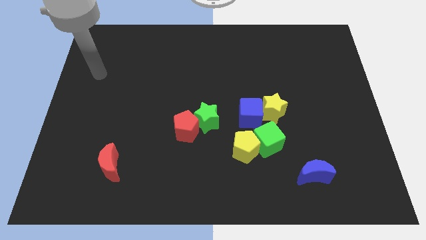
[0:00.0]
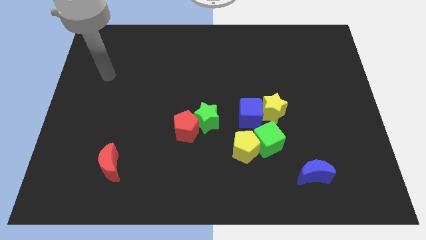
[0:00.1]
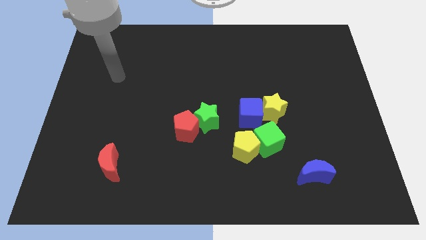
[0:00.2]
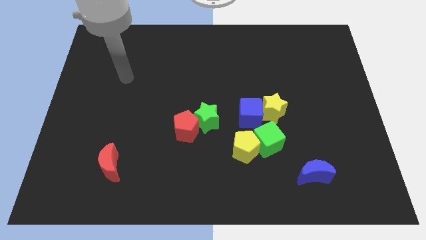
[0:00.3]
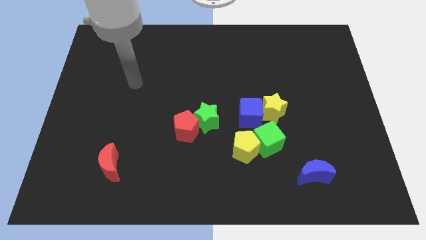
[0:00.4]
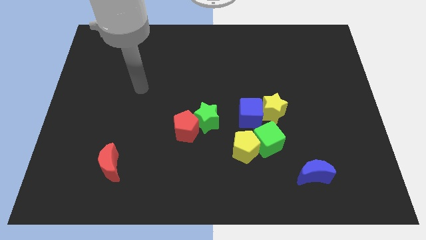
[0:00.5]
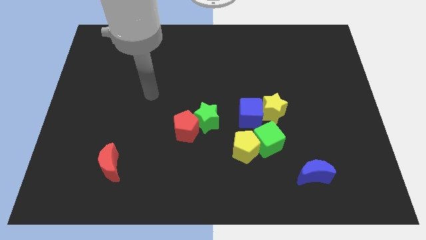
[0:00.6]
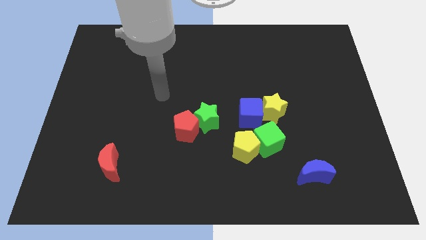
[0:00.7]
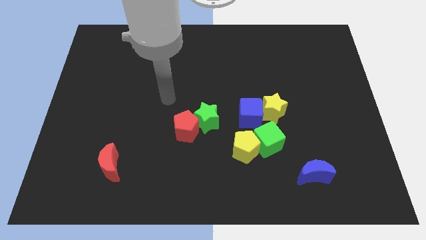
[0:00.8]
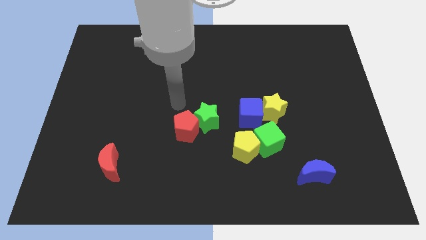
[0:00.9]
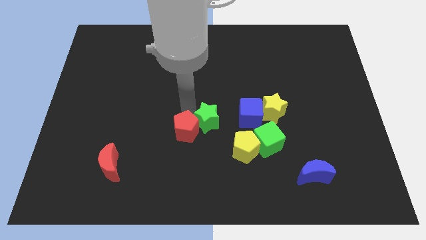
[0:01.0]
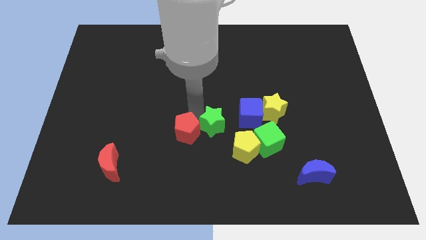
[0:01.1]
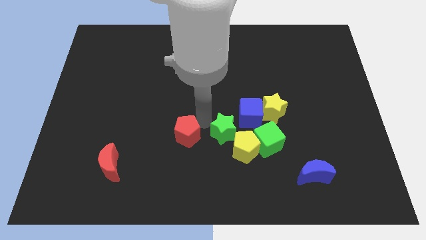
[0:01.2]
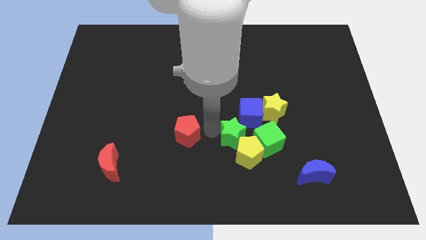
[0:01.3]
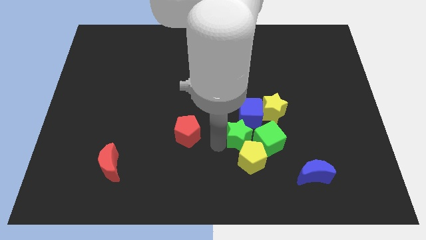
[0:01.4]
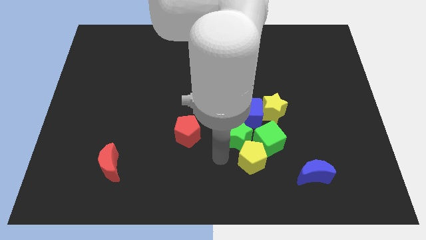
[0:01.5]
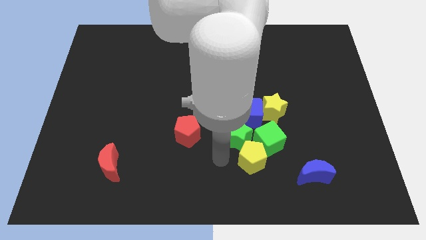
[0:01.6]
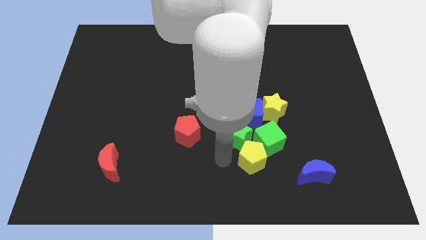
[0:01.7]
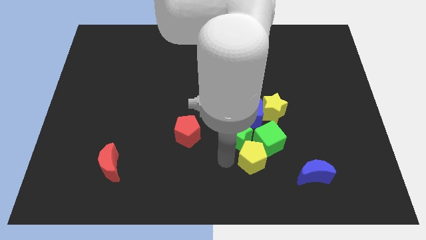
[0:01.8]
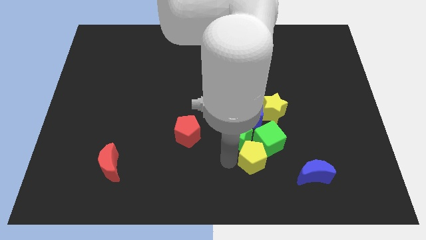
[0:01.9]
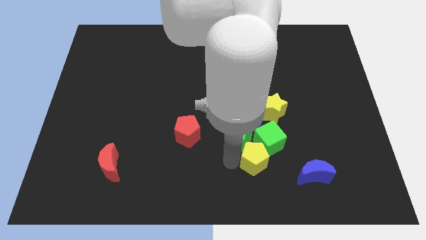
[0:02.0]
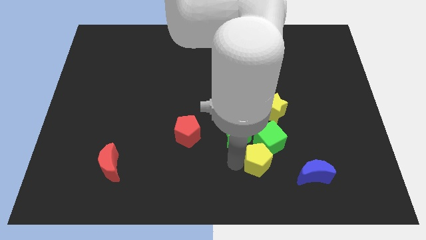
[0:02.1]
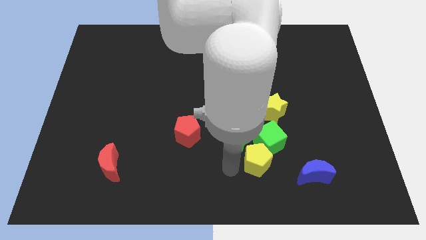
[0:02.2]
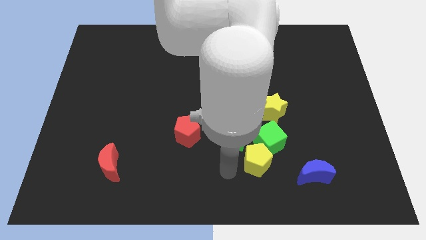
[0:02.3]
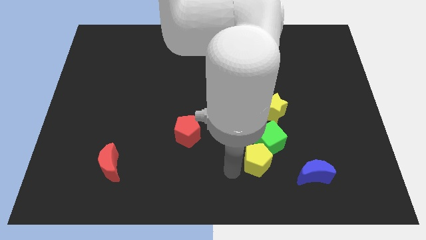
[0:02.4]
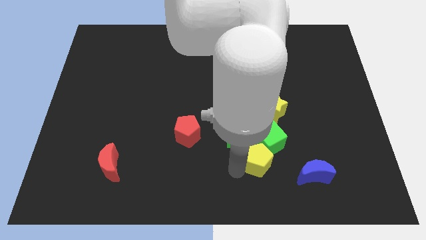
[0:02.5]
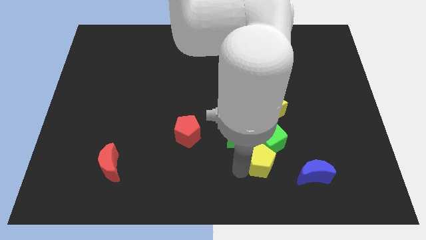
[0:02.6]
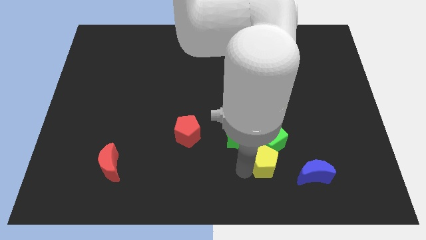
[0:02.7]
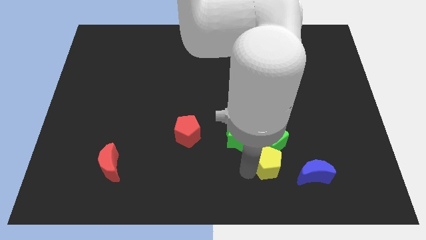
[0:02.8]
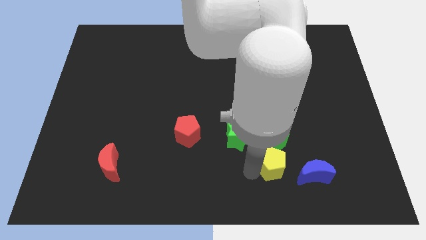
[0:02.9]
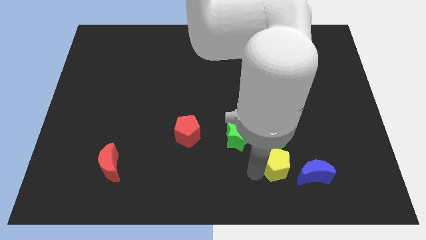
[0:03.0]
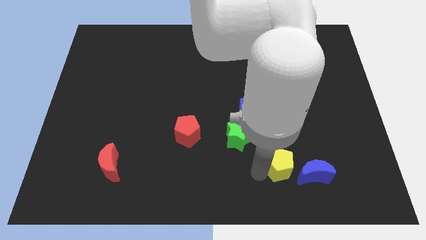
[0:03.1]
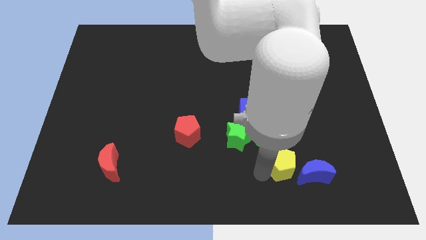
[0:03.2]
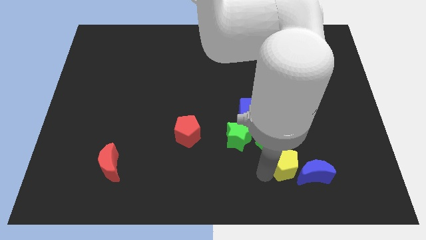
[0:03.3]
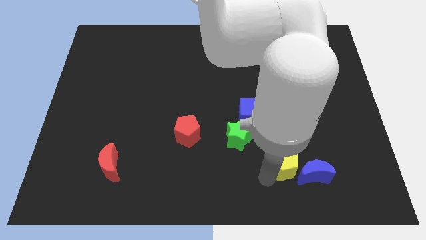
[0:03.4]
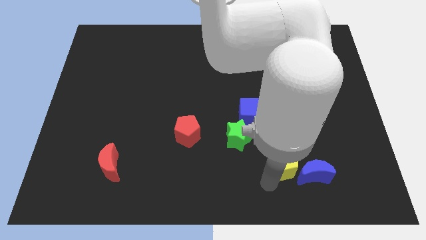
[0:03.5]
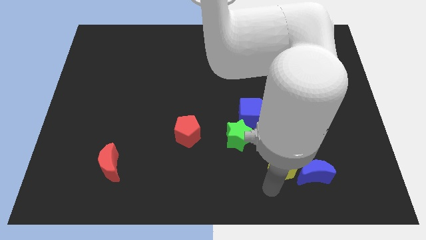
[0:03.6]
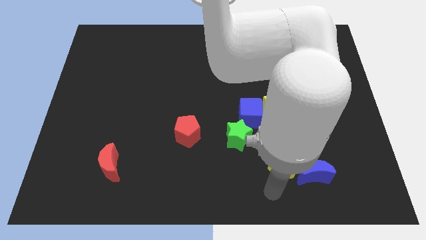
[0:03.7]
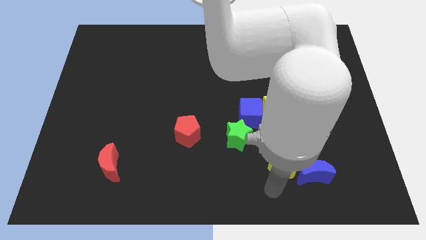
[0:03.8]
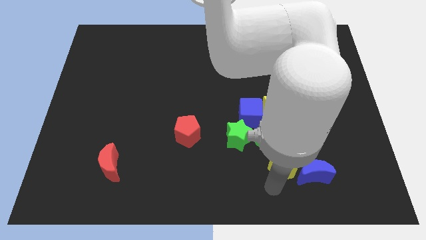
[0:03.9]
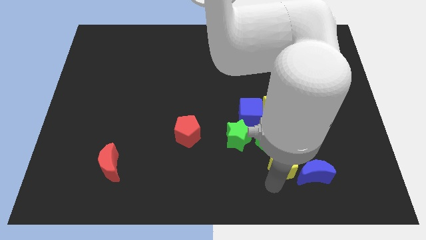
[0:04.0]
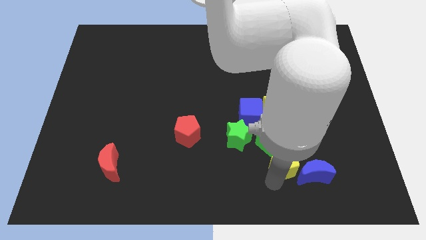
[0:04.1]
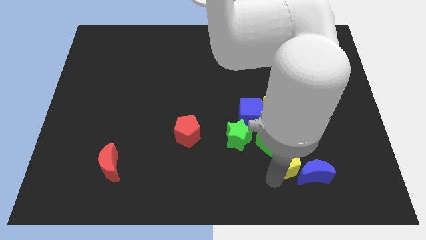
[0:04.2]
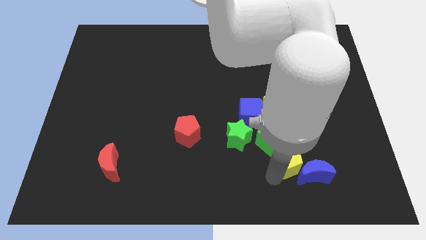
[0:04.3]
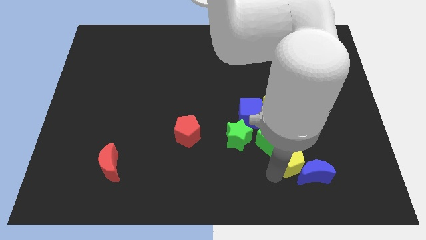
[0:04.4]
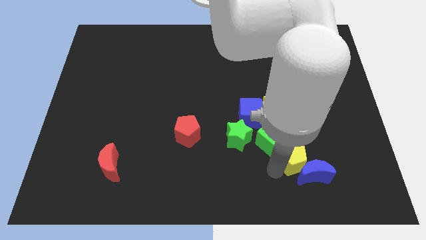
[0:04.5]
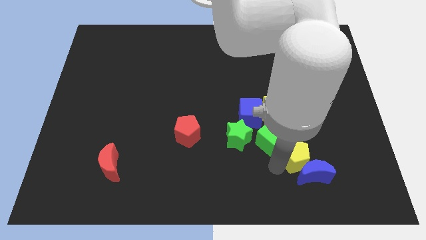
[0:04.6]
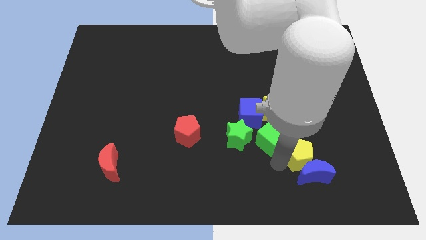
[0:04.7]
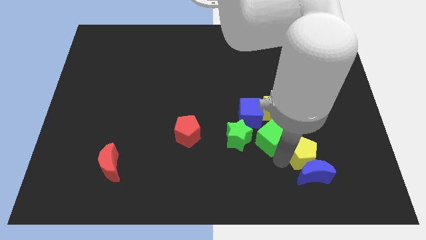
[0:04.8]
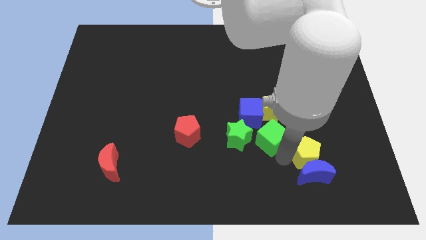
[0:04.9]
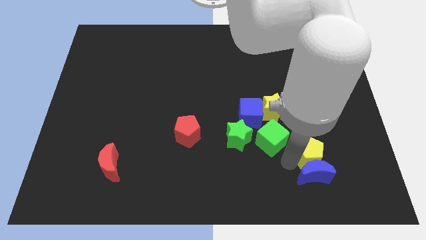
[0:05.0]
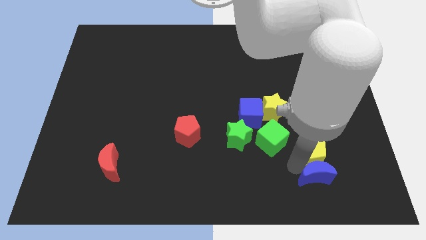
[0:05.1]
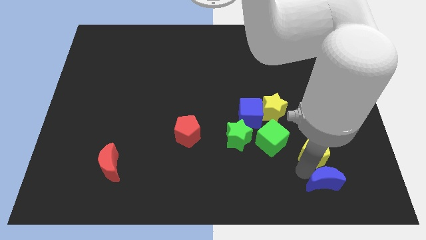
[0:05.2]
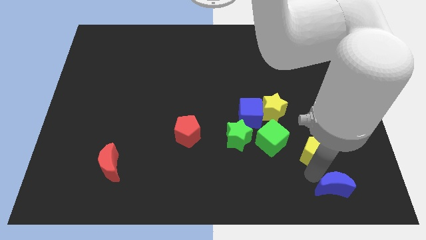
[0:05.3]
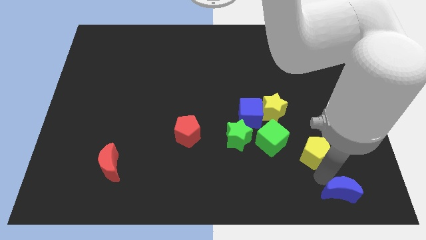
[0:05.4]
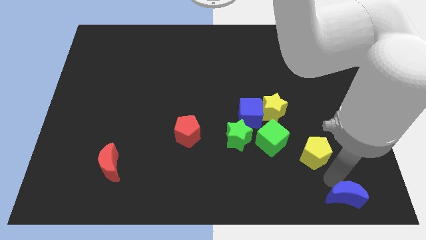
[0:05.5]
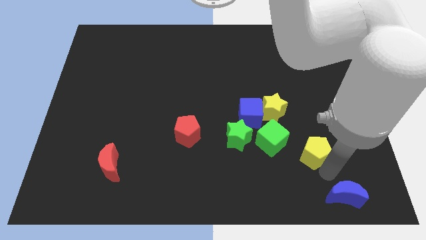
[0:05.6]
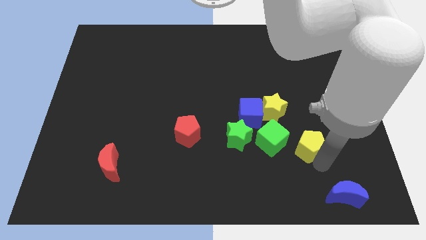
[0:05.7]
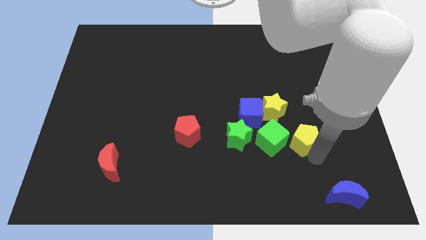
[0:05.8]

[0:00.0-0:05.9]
slightly move the yellow pentagon upwards and to the right diagonally

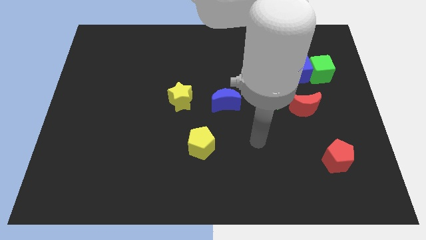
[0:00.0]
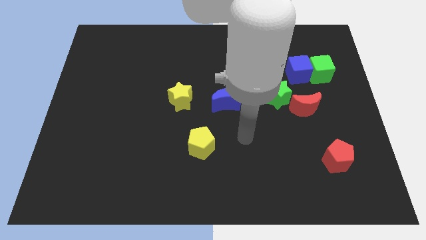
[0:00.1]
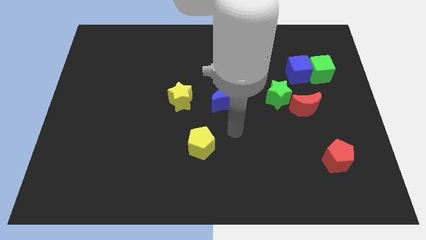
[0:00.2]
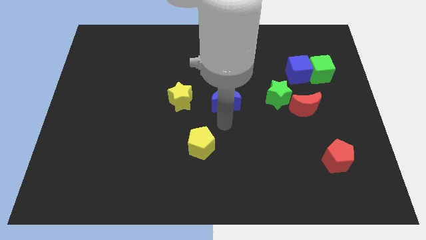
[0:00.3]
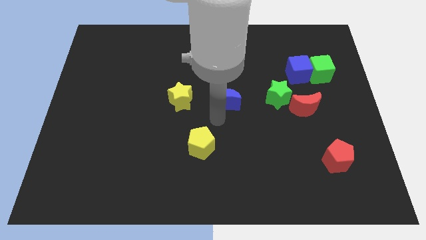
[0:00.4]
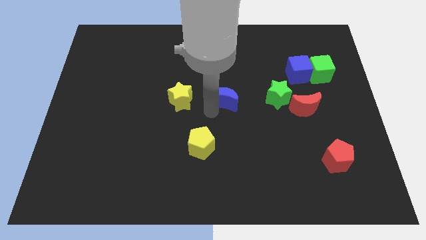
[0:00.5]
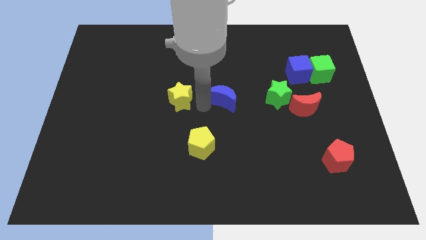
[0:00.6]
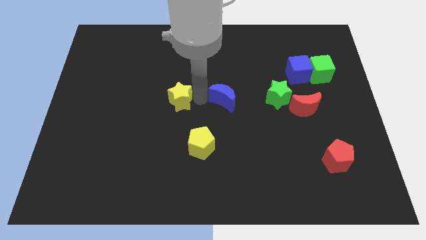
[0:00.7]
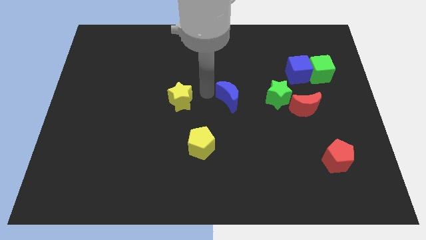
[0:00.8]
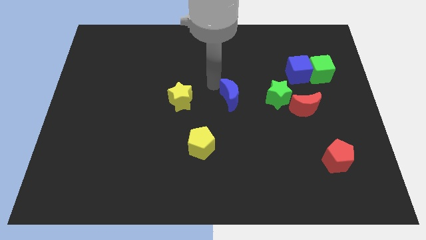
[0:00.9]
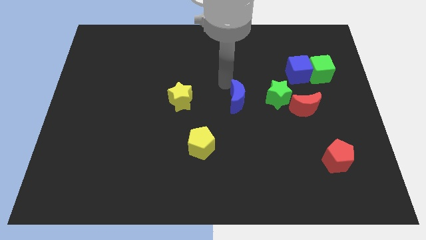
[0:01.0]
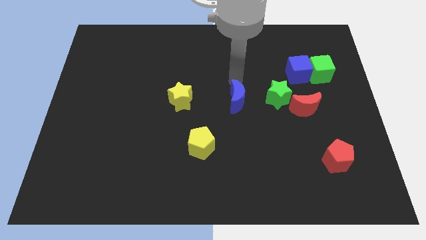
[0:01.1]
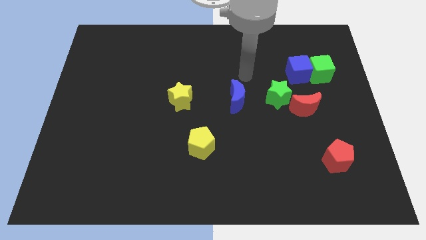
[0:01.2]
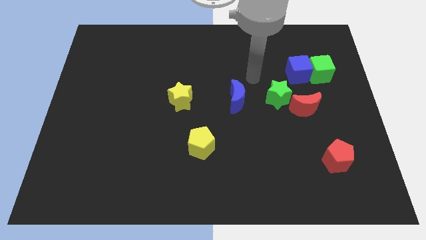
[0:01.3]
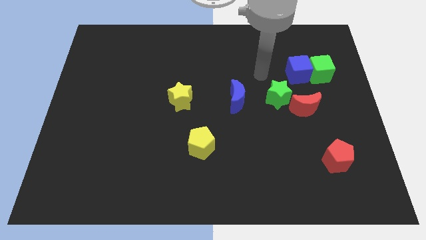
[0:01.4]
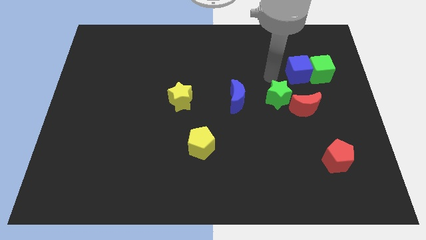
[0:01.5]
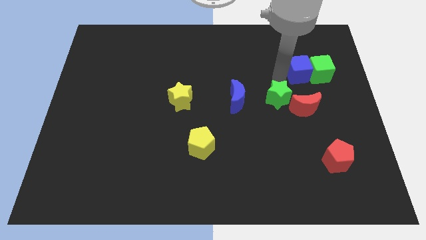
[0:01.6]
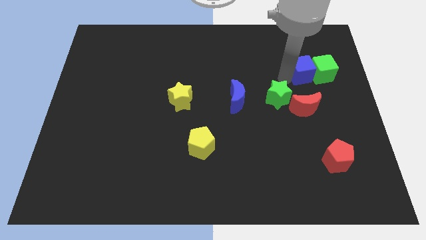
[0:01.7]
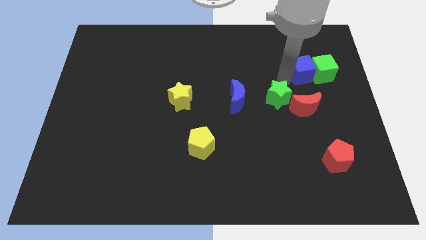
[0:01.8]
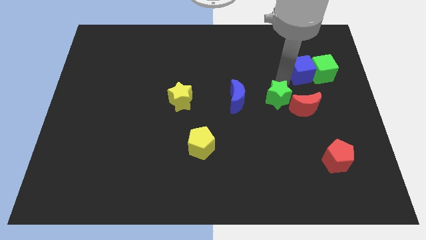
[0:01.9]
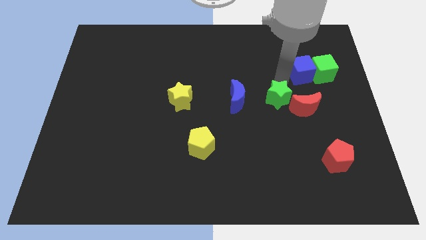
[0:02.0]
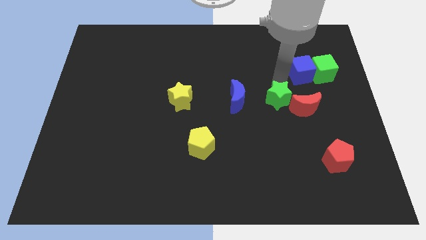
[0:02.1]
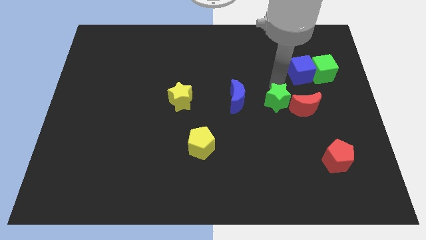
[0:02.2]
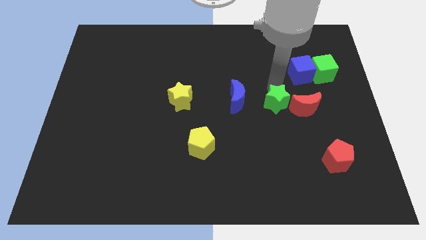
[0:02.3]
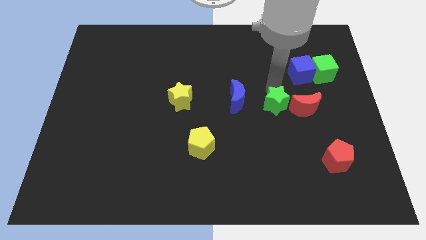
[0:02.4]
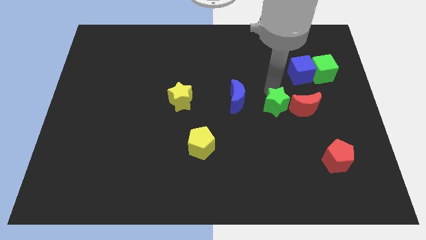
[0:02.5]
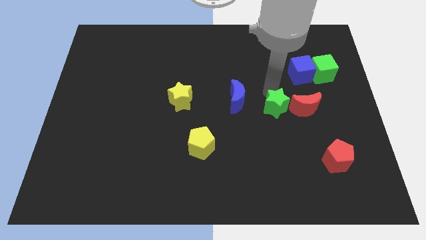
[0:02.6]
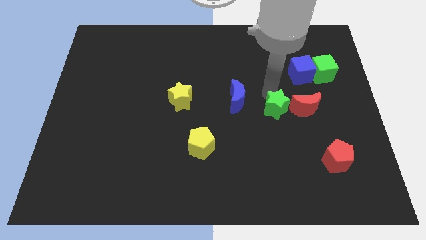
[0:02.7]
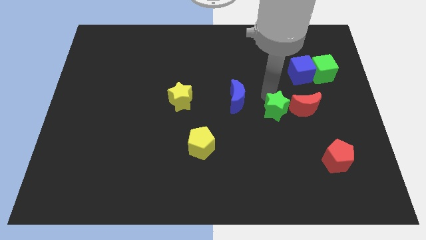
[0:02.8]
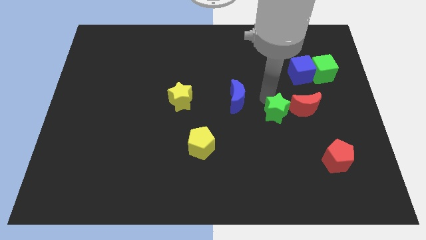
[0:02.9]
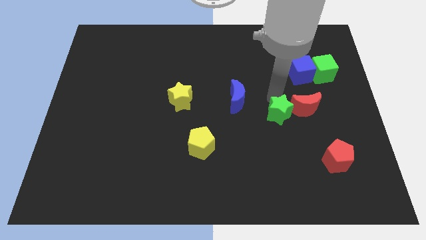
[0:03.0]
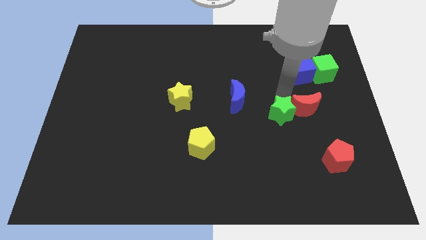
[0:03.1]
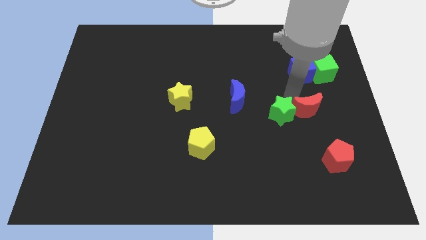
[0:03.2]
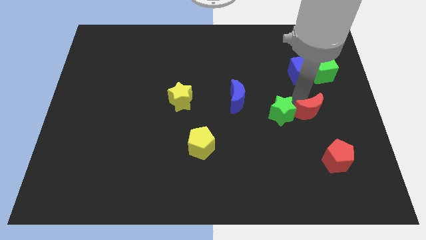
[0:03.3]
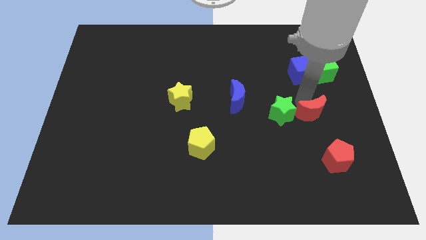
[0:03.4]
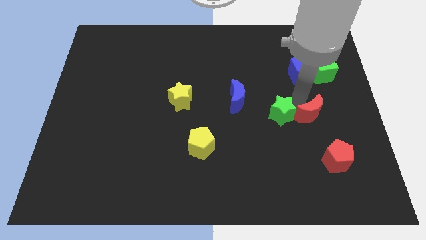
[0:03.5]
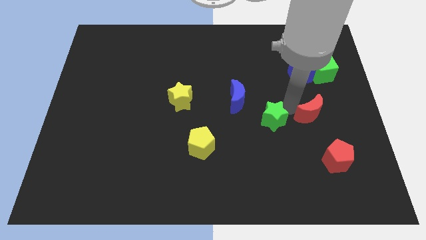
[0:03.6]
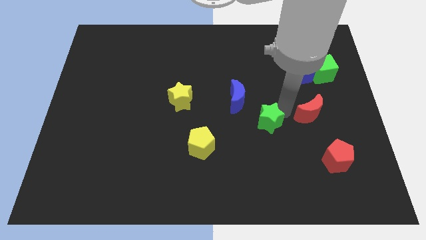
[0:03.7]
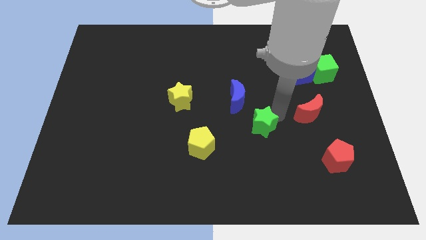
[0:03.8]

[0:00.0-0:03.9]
slide the green star a bit diagonally downwards and left
